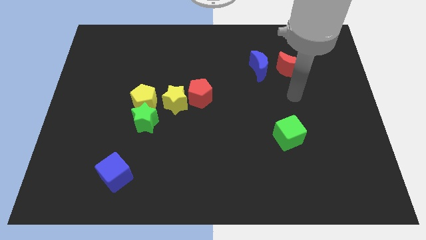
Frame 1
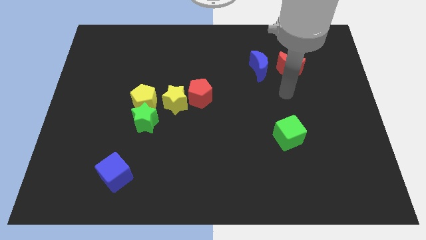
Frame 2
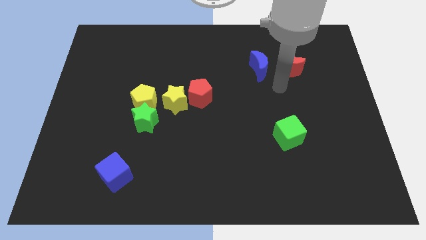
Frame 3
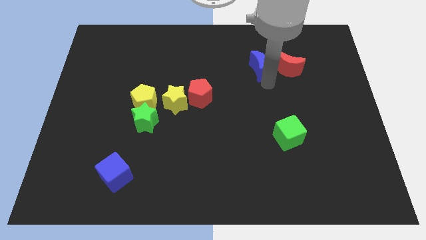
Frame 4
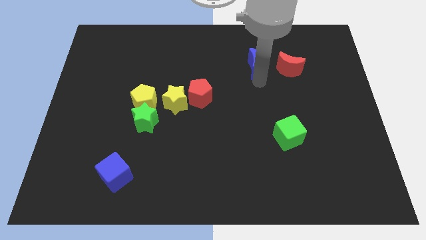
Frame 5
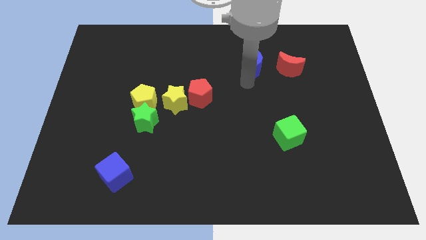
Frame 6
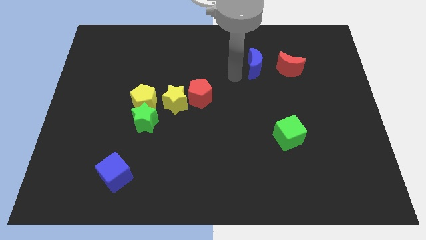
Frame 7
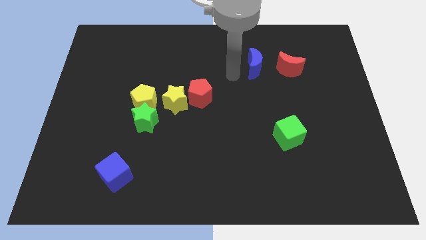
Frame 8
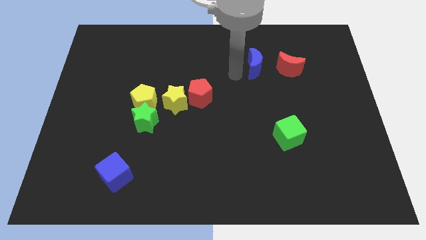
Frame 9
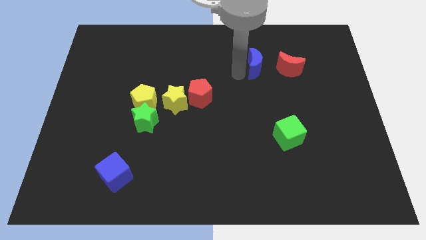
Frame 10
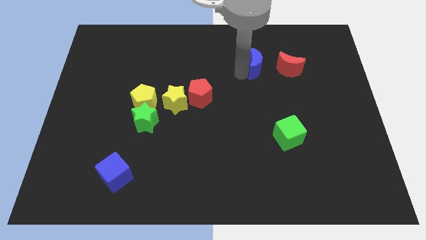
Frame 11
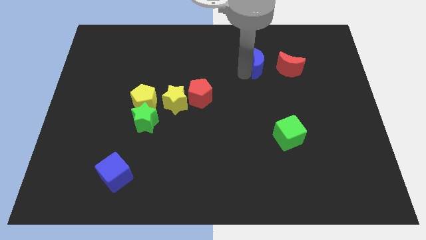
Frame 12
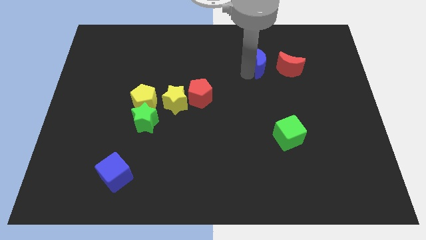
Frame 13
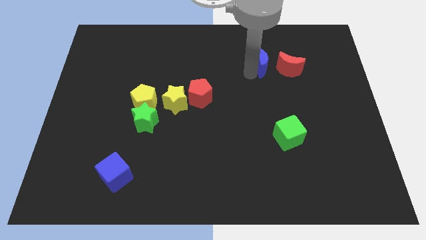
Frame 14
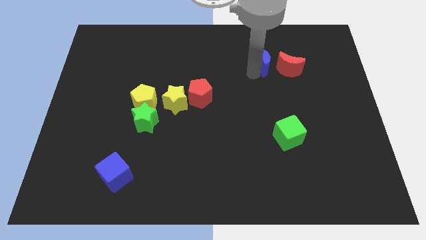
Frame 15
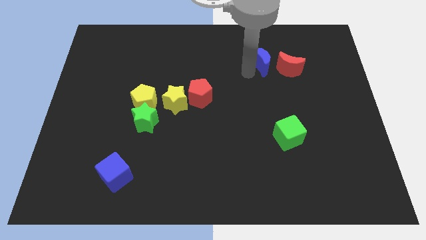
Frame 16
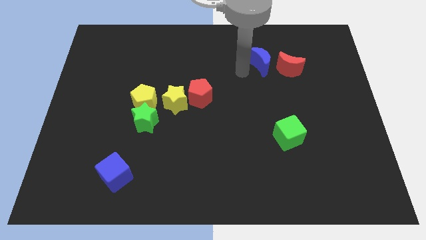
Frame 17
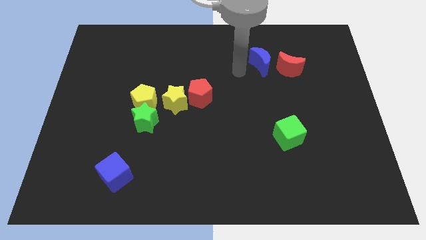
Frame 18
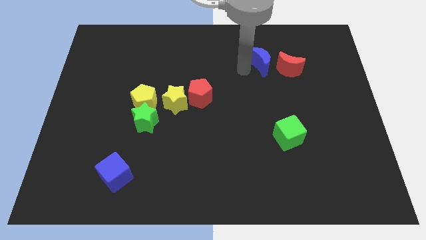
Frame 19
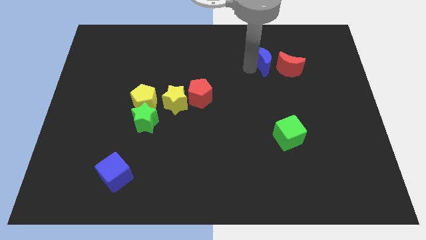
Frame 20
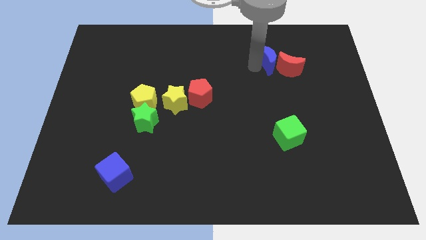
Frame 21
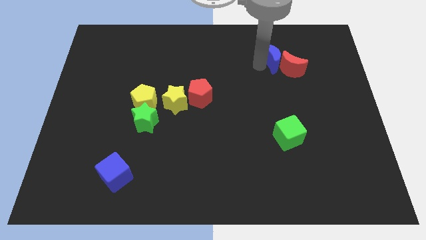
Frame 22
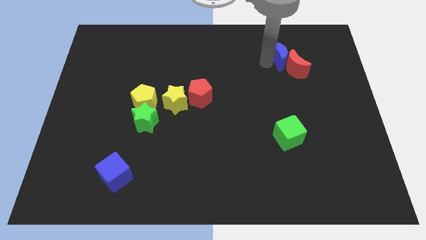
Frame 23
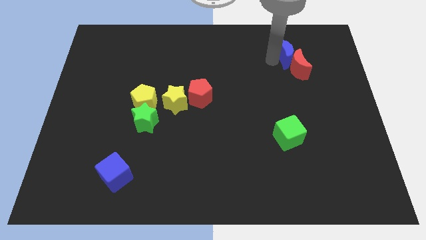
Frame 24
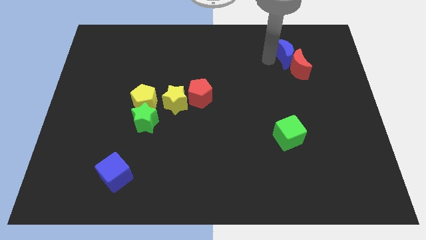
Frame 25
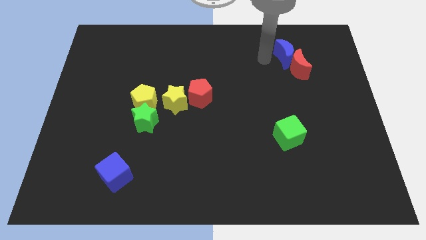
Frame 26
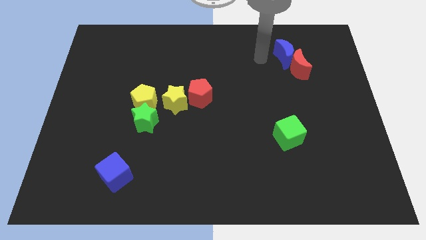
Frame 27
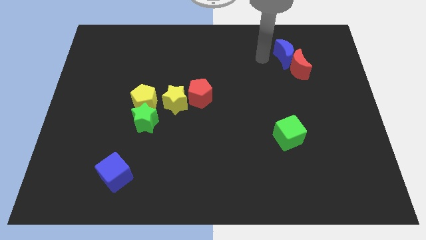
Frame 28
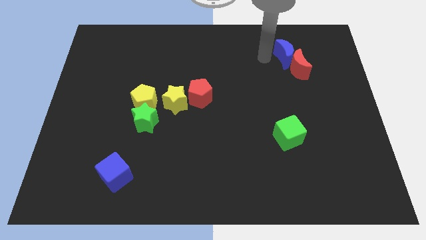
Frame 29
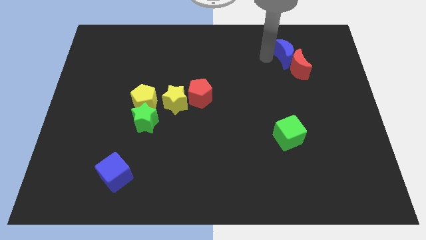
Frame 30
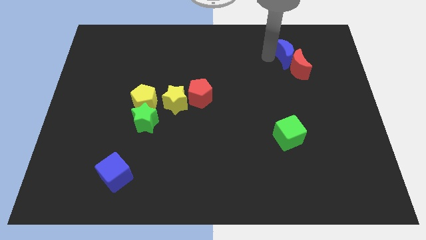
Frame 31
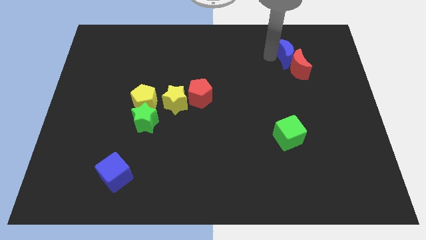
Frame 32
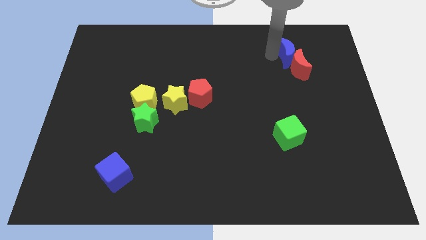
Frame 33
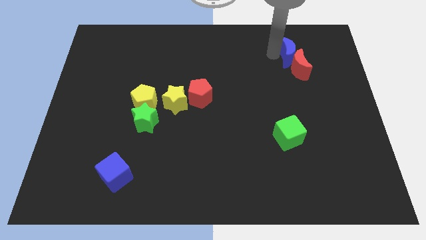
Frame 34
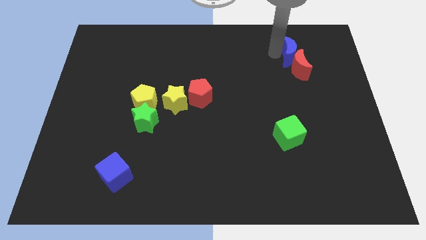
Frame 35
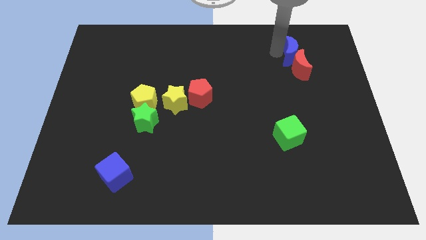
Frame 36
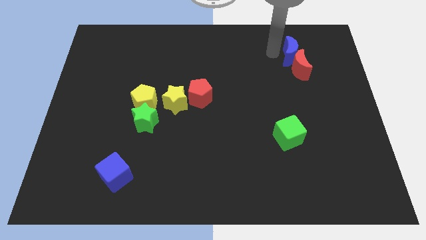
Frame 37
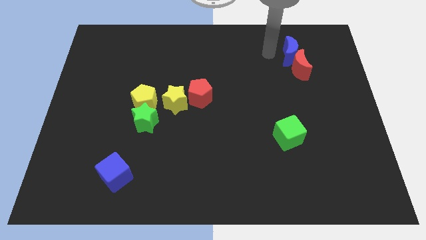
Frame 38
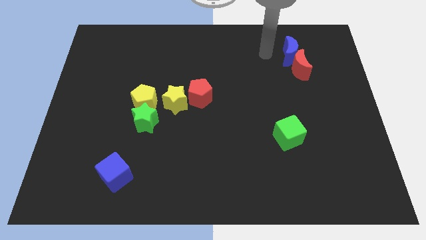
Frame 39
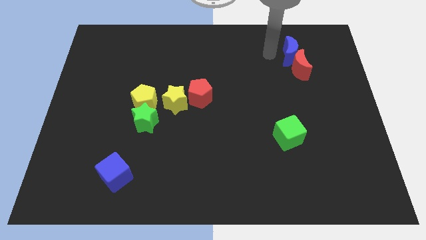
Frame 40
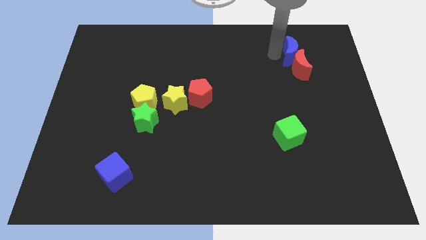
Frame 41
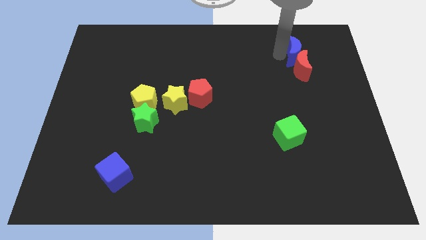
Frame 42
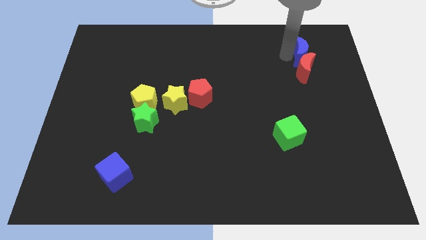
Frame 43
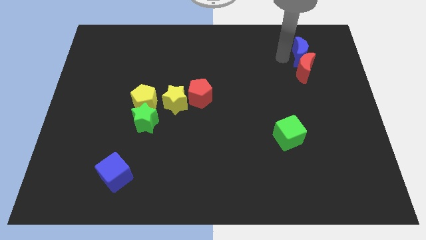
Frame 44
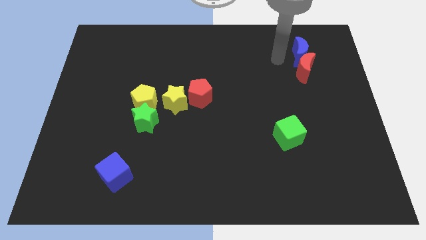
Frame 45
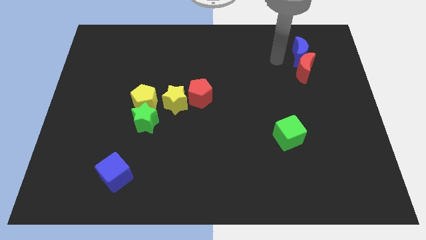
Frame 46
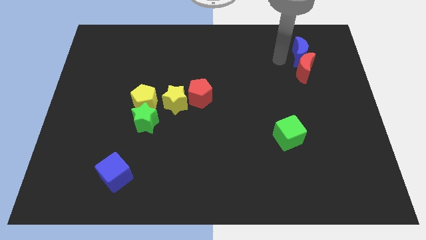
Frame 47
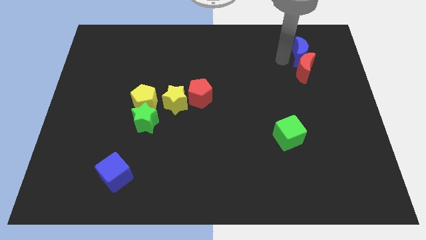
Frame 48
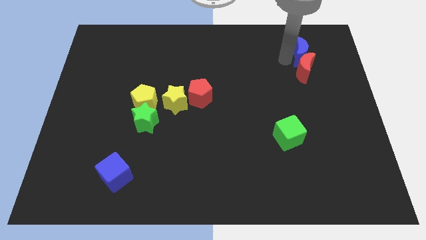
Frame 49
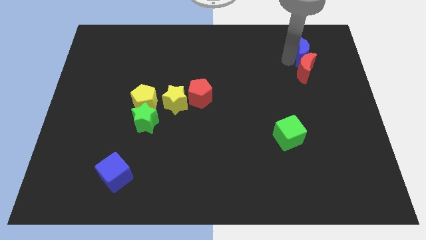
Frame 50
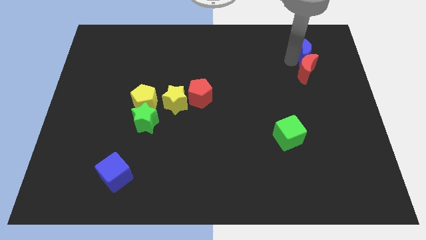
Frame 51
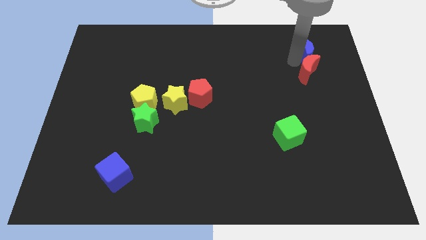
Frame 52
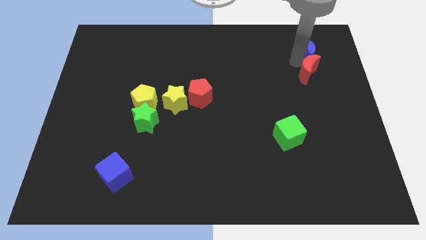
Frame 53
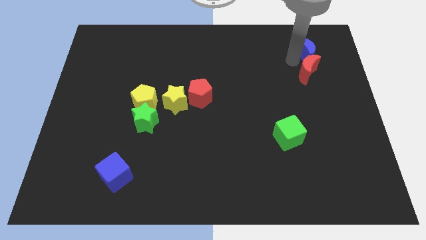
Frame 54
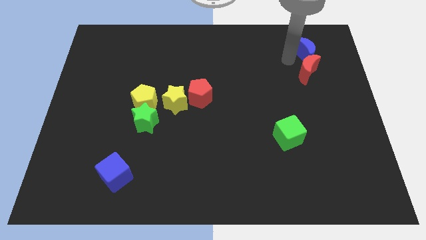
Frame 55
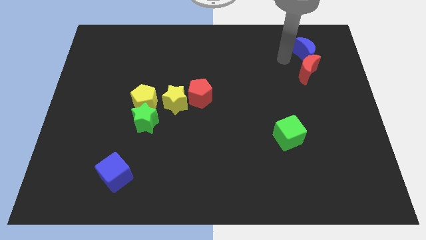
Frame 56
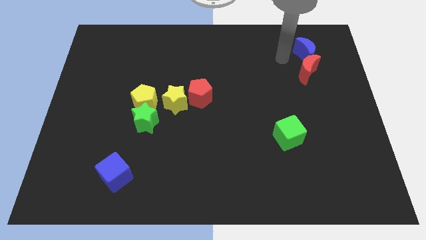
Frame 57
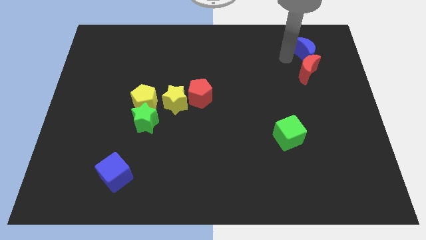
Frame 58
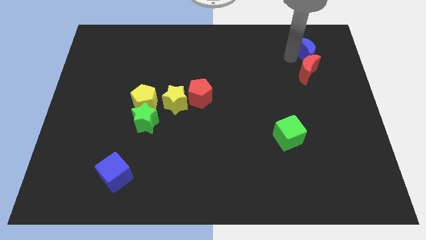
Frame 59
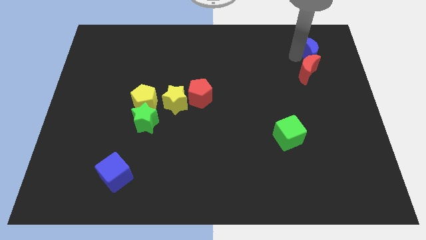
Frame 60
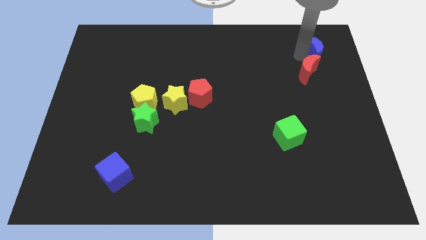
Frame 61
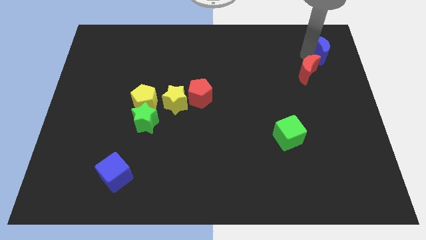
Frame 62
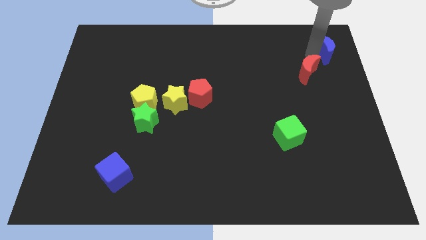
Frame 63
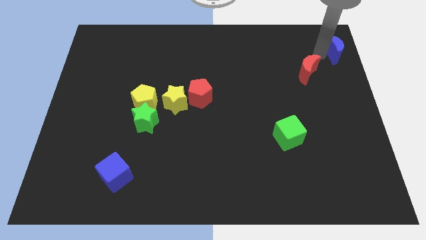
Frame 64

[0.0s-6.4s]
put the blue moon to the top right

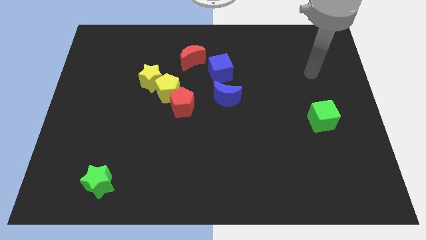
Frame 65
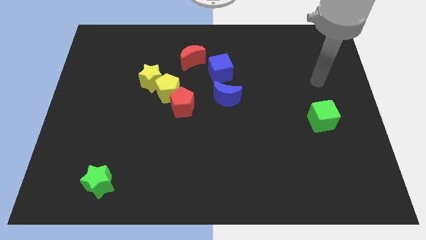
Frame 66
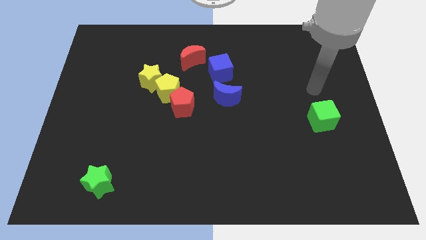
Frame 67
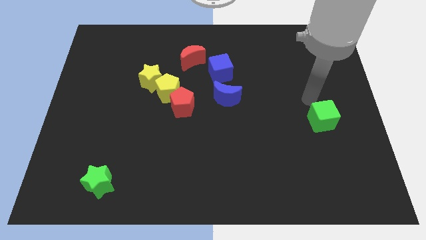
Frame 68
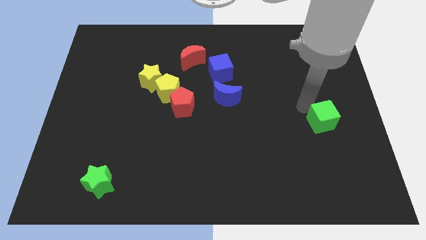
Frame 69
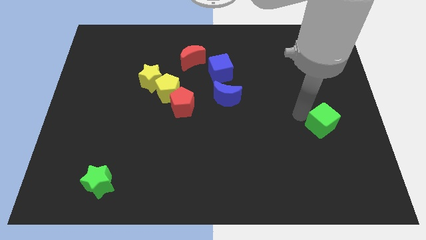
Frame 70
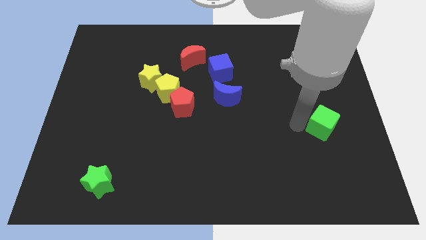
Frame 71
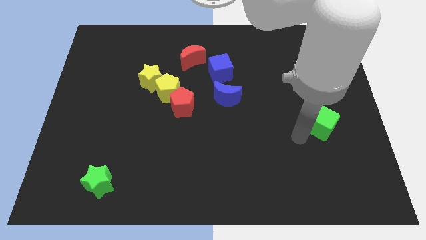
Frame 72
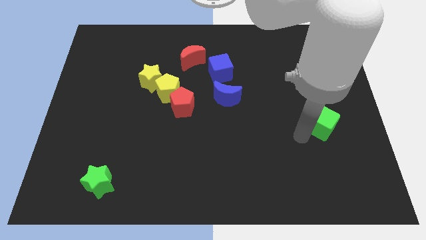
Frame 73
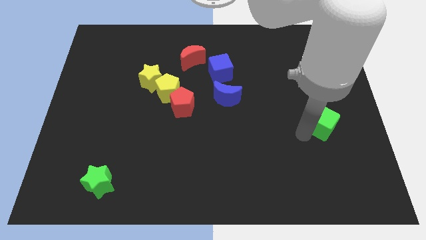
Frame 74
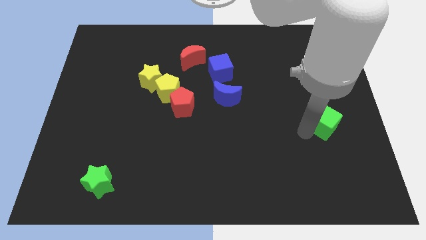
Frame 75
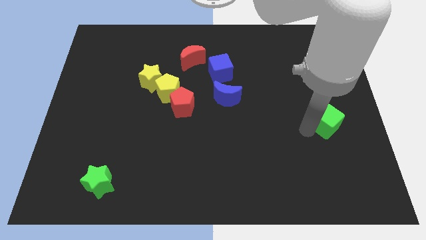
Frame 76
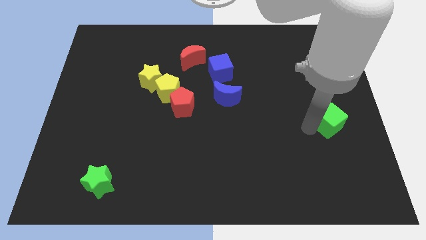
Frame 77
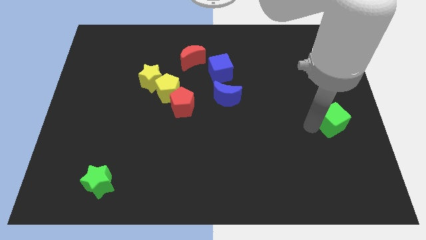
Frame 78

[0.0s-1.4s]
put the green cube to the right side
